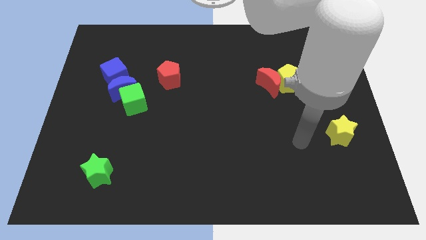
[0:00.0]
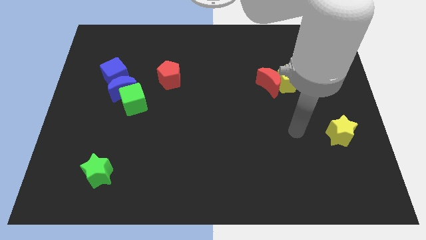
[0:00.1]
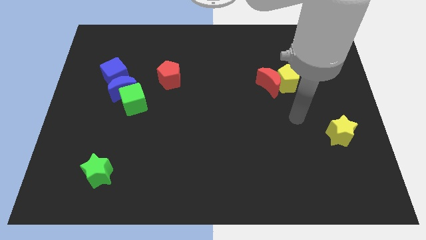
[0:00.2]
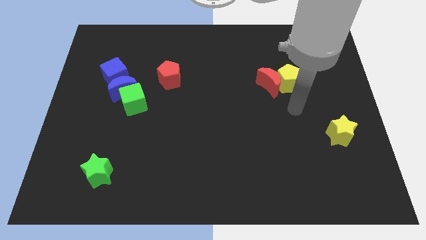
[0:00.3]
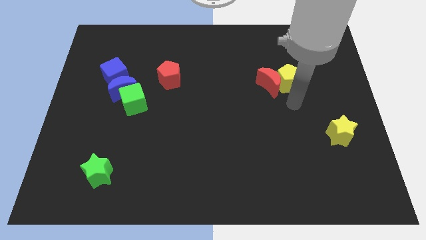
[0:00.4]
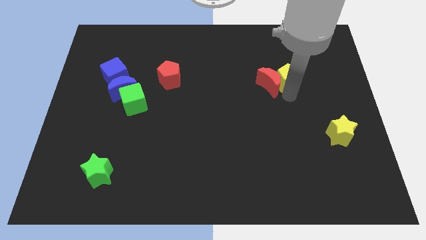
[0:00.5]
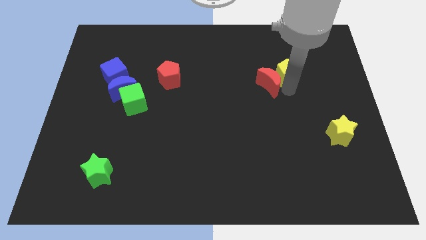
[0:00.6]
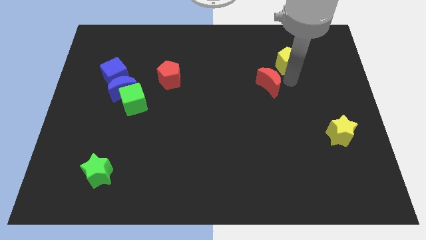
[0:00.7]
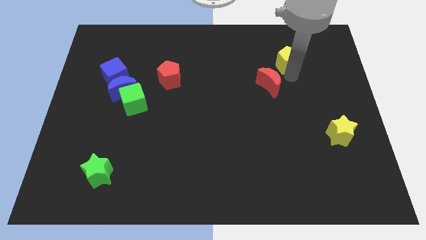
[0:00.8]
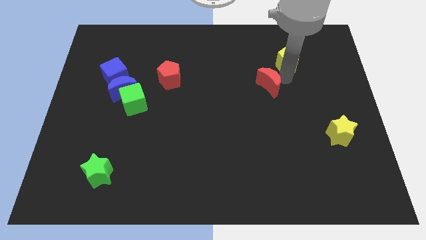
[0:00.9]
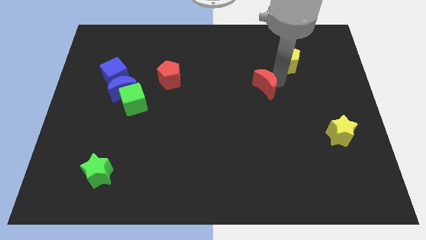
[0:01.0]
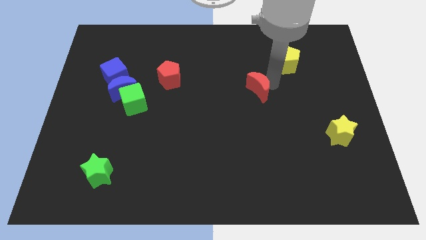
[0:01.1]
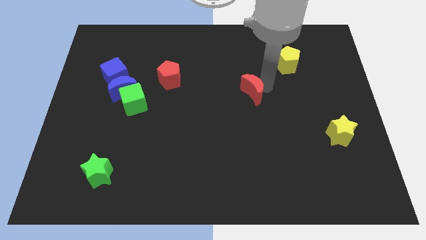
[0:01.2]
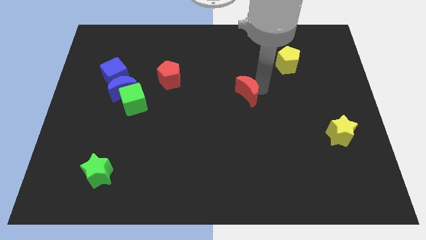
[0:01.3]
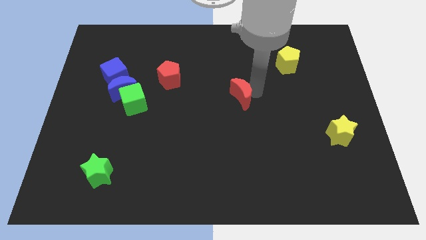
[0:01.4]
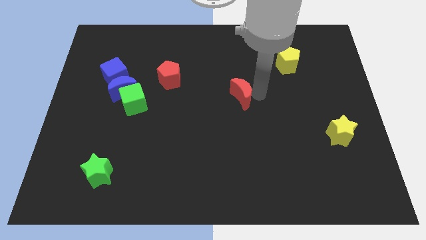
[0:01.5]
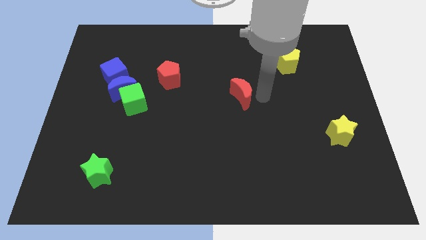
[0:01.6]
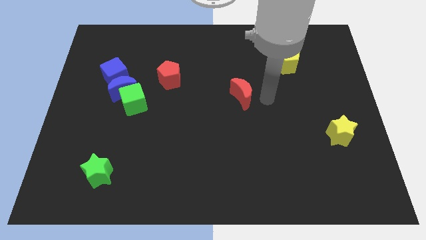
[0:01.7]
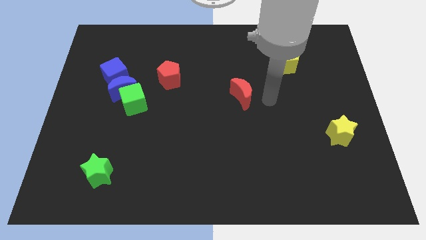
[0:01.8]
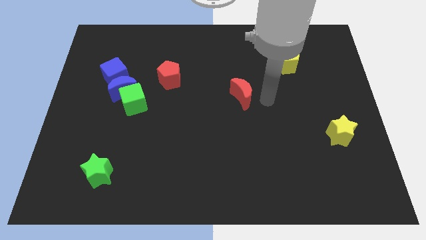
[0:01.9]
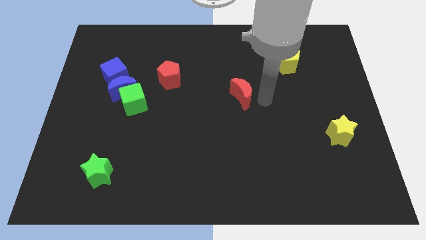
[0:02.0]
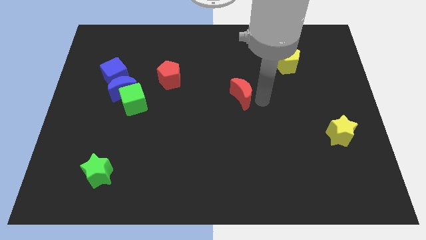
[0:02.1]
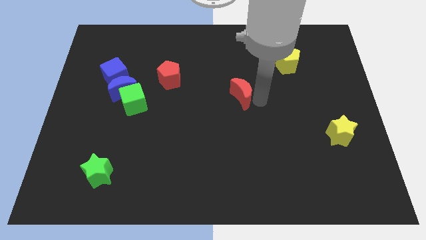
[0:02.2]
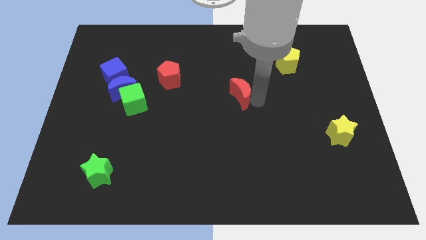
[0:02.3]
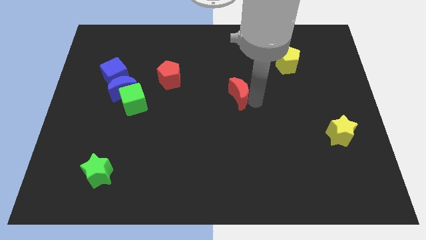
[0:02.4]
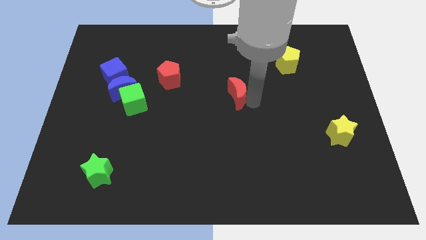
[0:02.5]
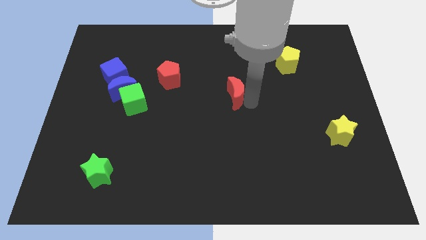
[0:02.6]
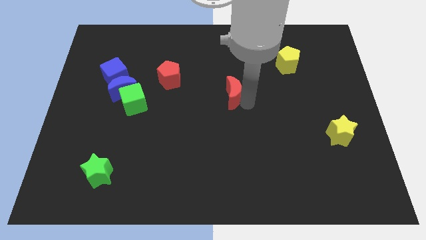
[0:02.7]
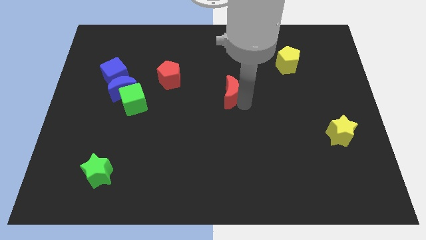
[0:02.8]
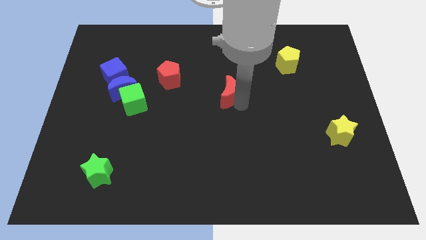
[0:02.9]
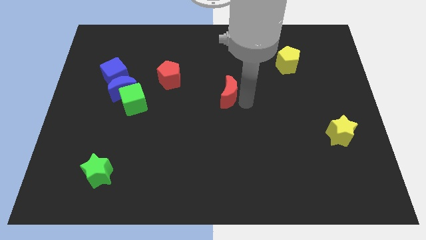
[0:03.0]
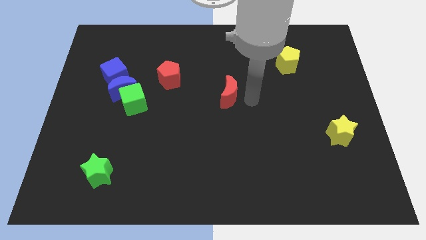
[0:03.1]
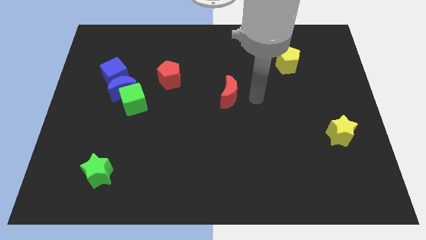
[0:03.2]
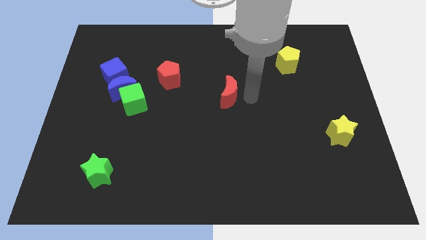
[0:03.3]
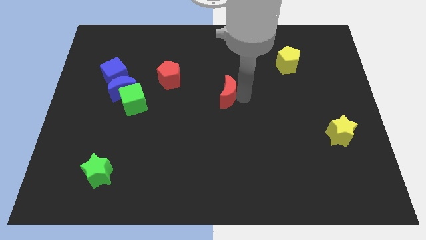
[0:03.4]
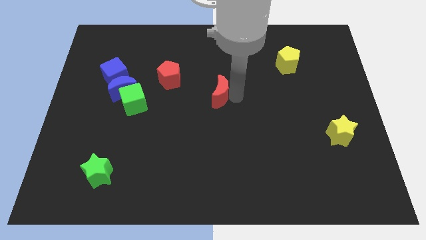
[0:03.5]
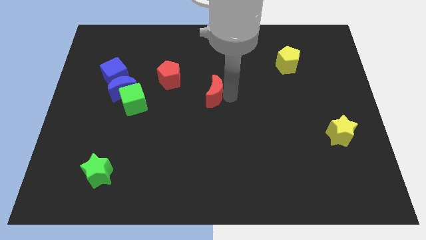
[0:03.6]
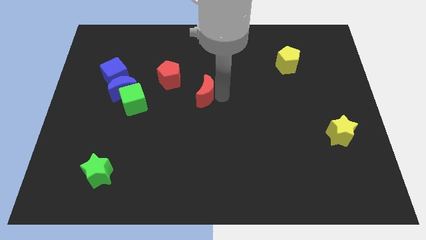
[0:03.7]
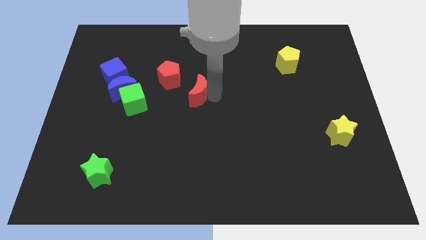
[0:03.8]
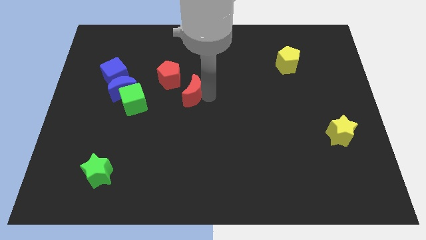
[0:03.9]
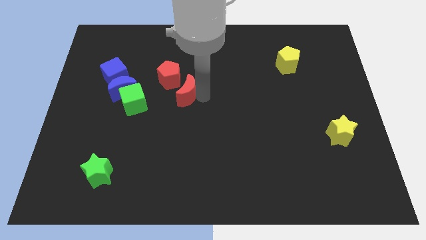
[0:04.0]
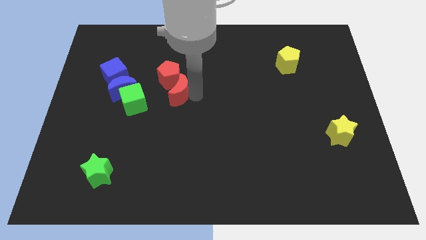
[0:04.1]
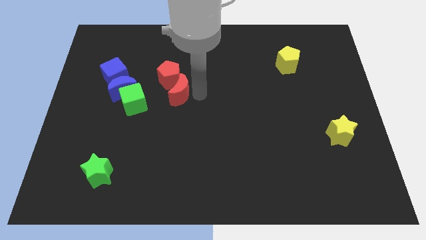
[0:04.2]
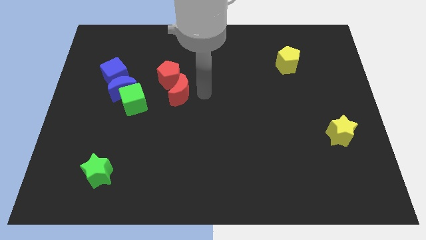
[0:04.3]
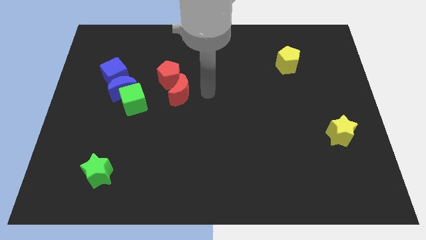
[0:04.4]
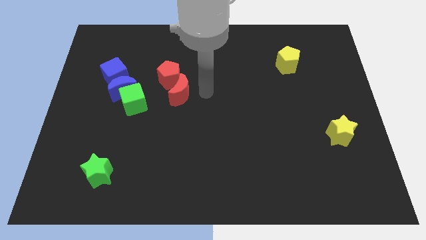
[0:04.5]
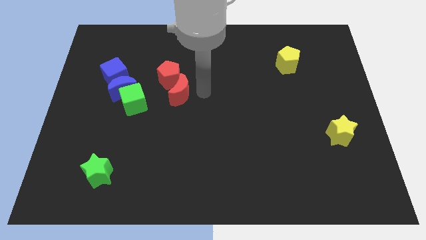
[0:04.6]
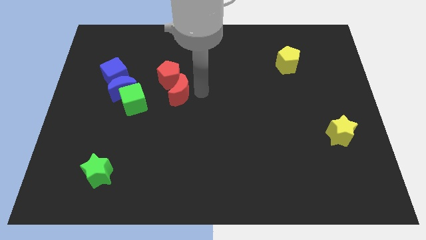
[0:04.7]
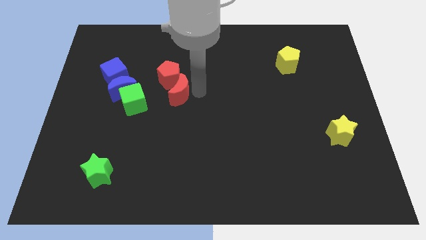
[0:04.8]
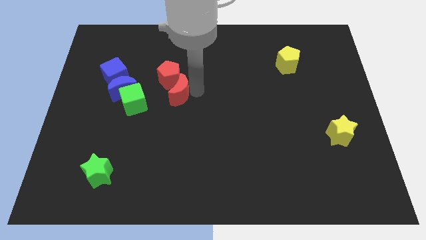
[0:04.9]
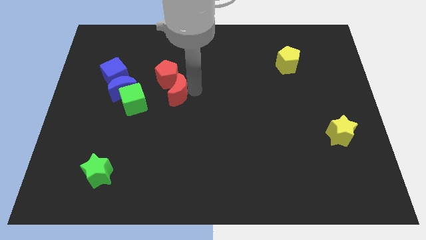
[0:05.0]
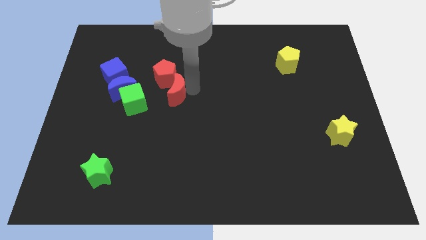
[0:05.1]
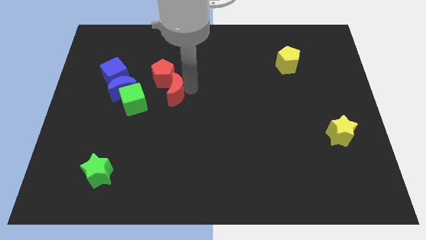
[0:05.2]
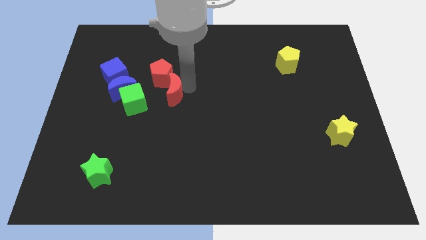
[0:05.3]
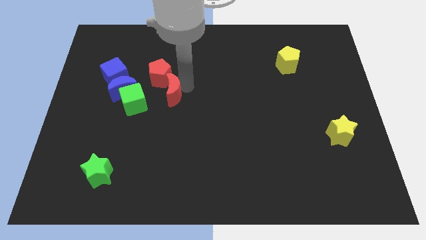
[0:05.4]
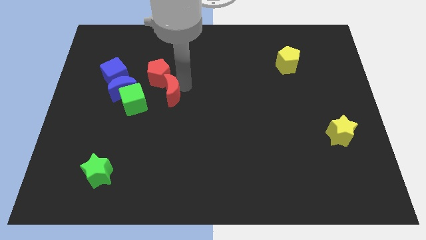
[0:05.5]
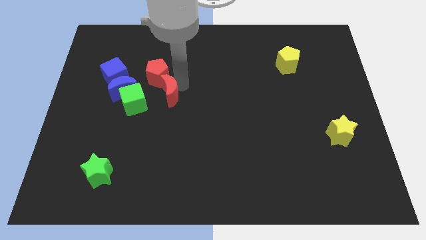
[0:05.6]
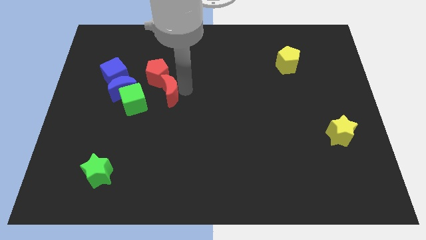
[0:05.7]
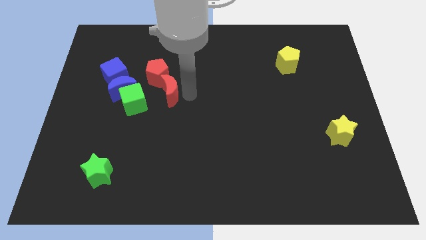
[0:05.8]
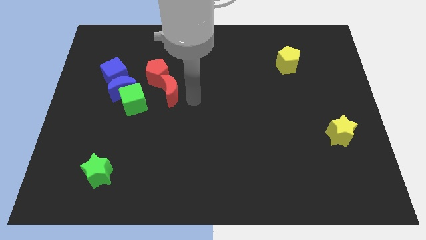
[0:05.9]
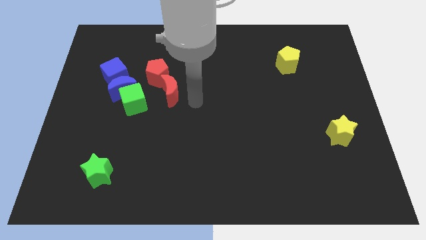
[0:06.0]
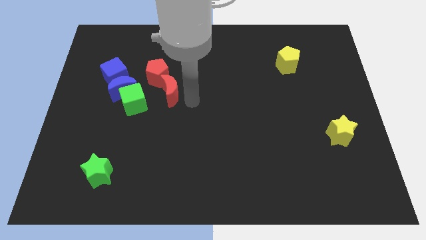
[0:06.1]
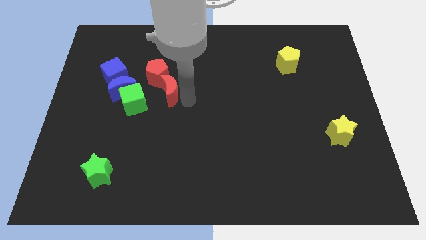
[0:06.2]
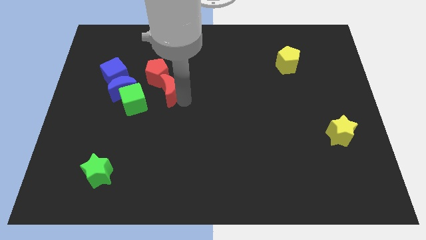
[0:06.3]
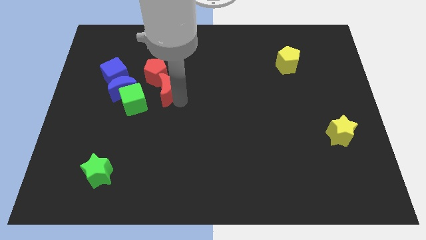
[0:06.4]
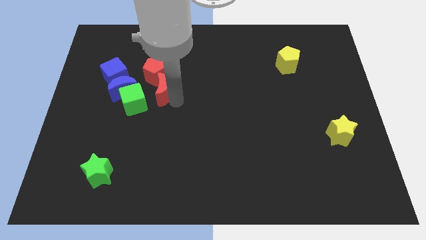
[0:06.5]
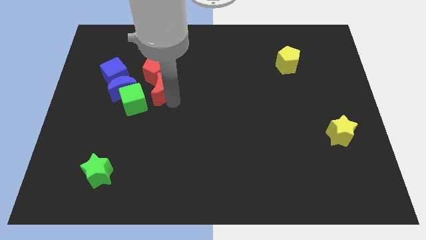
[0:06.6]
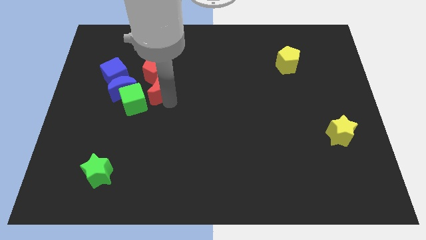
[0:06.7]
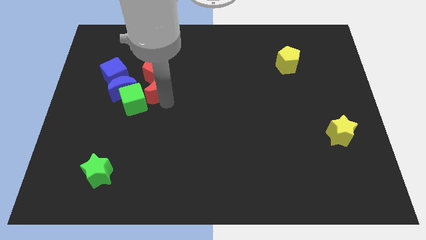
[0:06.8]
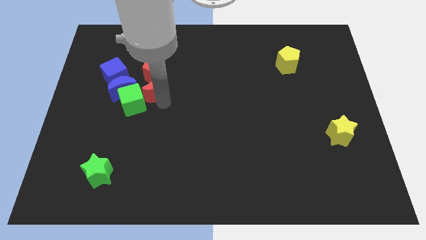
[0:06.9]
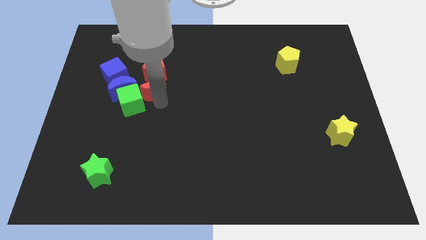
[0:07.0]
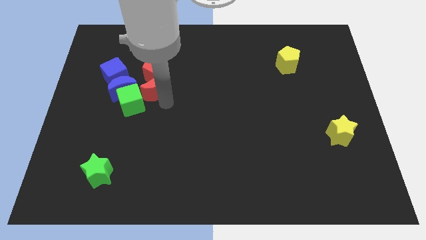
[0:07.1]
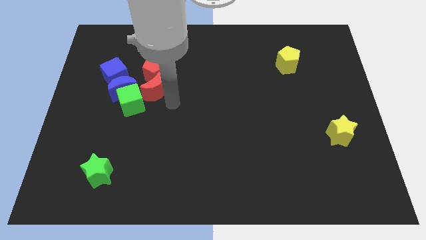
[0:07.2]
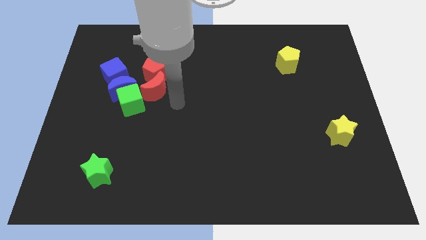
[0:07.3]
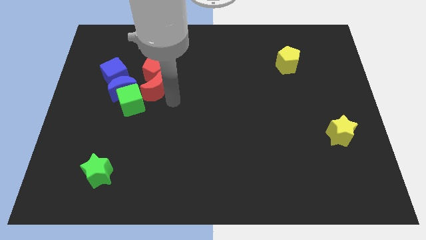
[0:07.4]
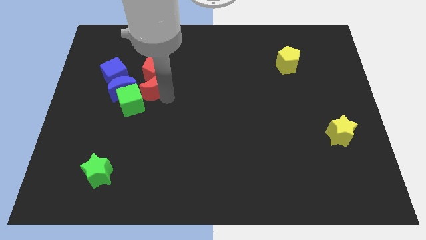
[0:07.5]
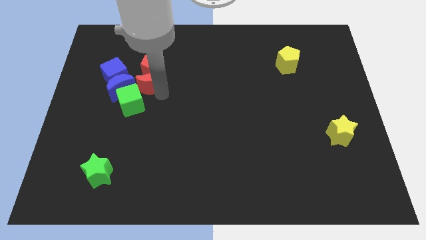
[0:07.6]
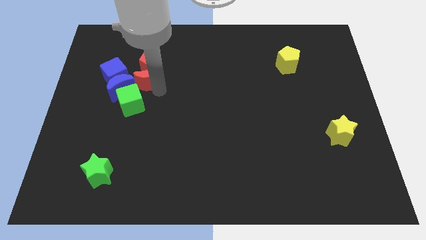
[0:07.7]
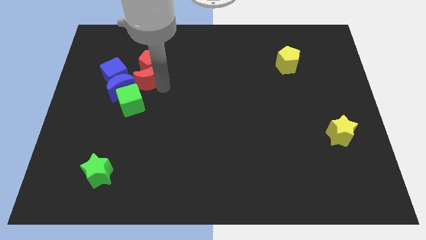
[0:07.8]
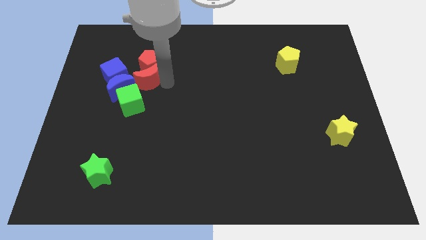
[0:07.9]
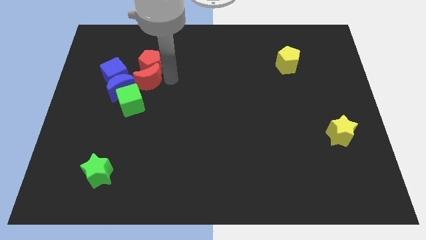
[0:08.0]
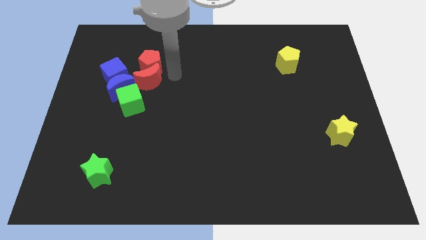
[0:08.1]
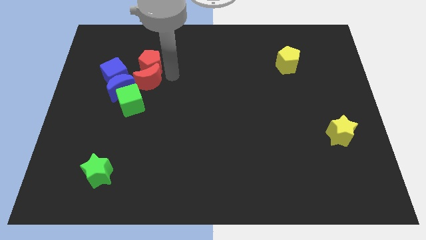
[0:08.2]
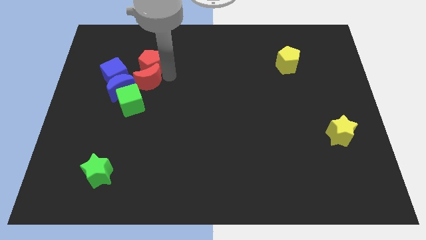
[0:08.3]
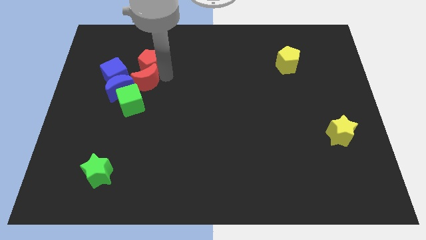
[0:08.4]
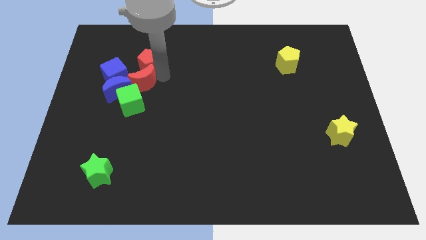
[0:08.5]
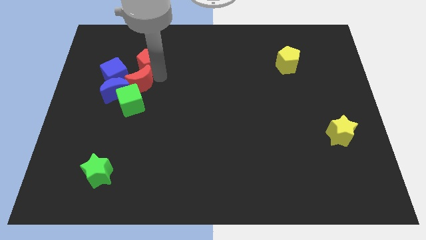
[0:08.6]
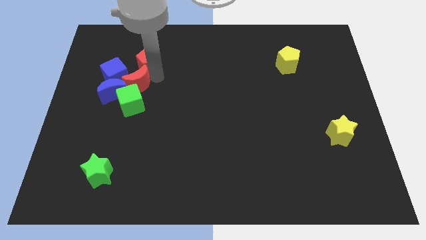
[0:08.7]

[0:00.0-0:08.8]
slide the red moon towards the blue moon
